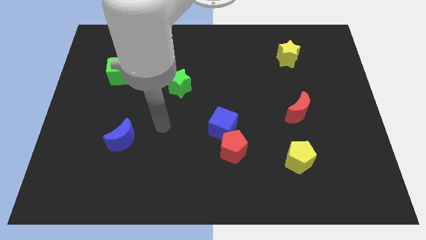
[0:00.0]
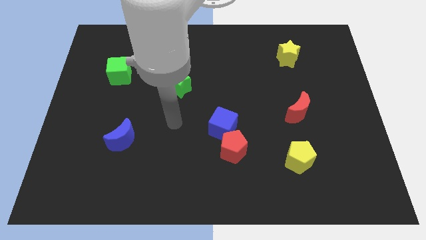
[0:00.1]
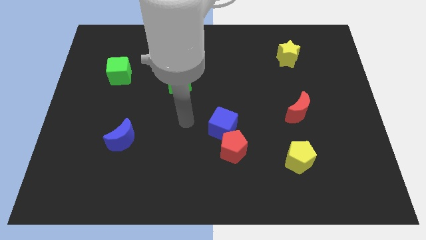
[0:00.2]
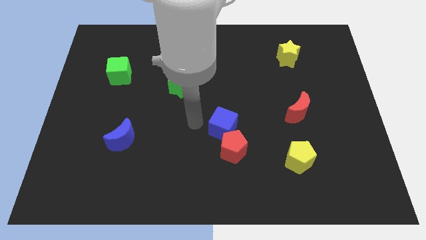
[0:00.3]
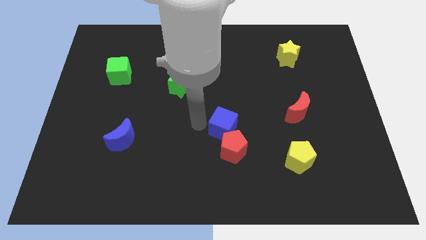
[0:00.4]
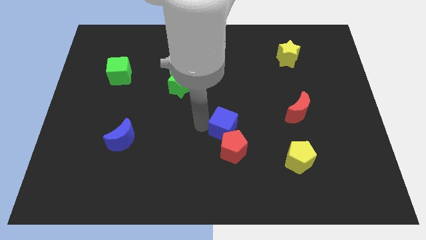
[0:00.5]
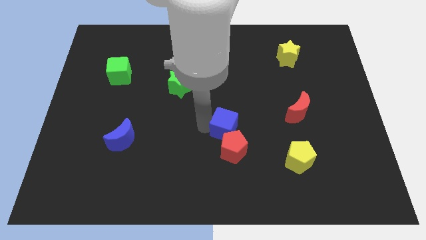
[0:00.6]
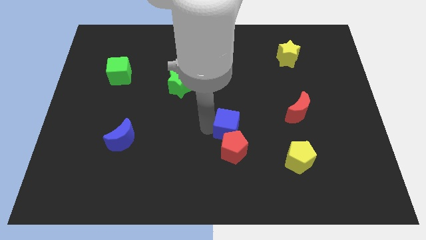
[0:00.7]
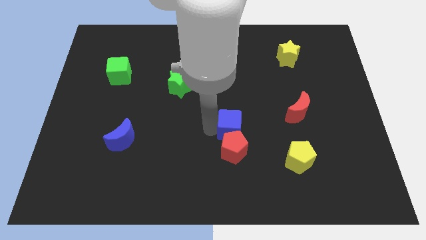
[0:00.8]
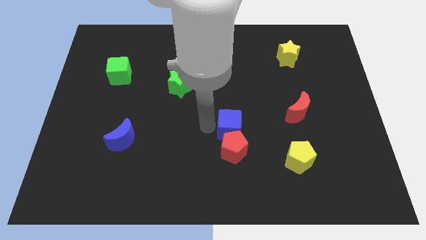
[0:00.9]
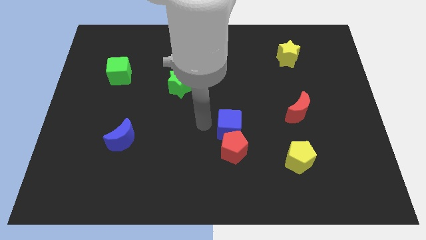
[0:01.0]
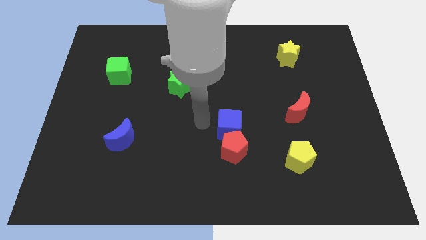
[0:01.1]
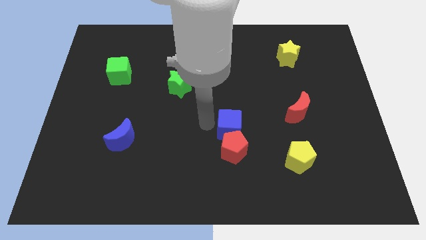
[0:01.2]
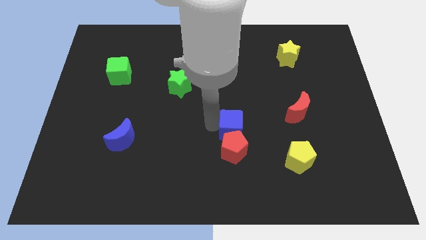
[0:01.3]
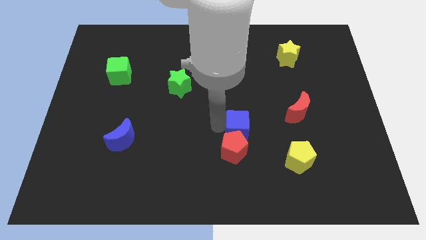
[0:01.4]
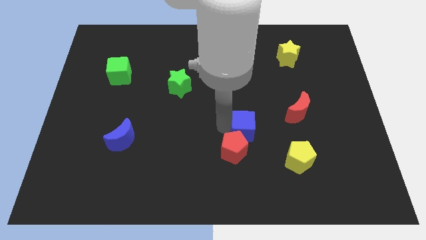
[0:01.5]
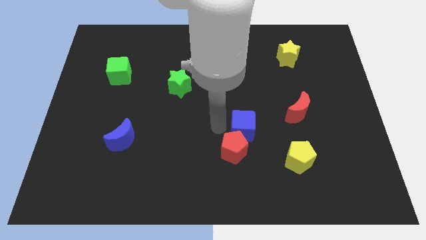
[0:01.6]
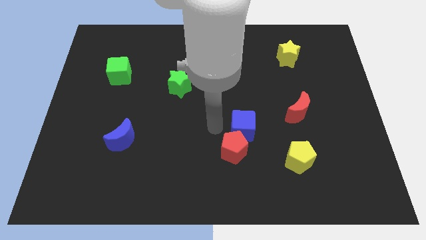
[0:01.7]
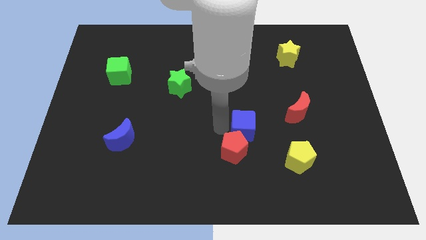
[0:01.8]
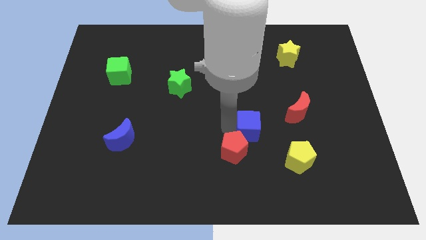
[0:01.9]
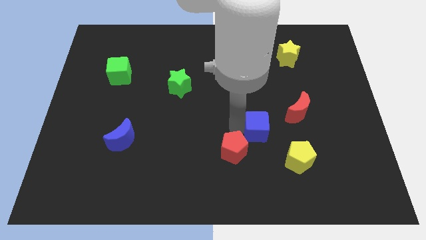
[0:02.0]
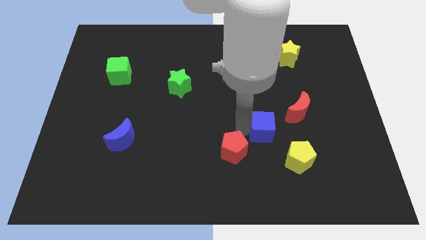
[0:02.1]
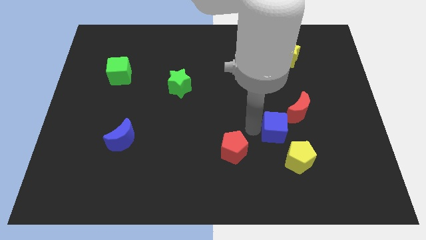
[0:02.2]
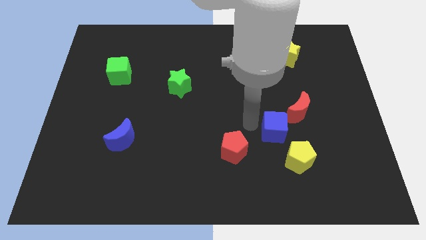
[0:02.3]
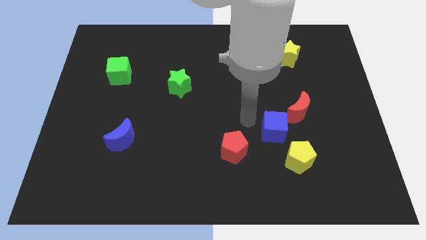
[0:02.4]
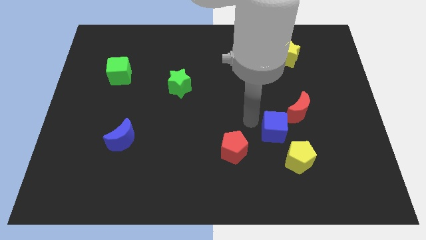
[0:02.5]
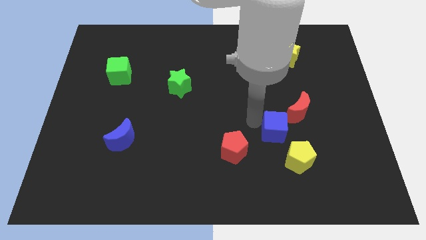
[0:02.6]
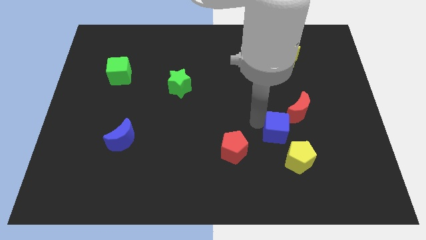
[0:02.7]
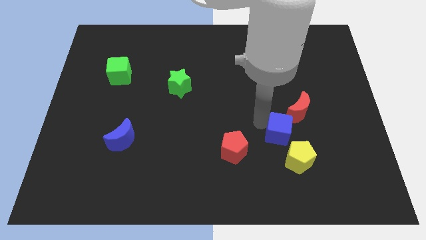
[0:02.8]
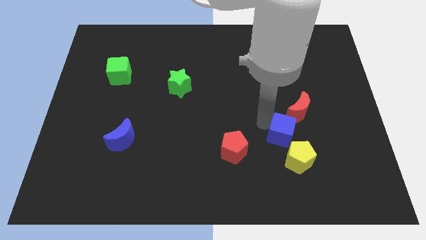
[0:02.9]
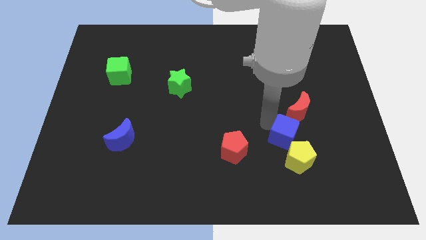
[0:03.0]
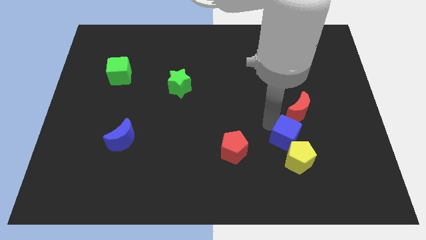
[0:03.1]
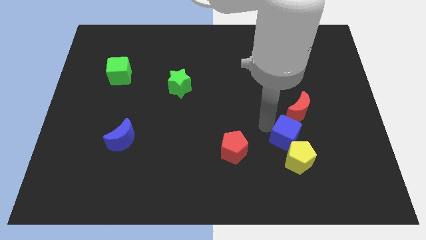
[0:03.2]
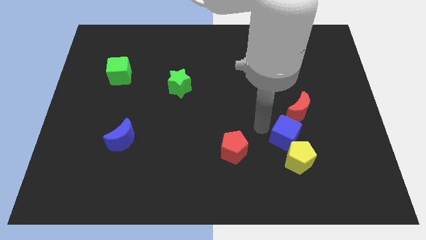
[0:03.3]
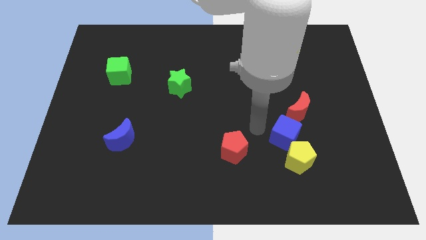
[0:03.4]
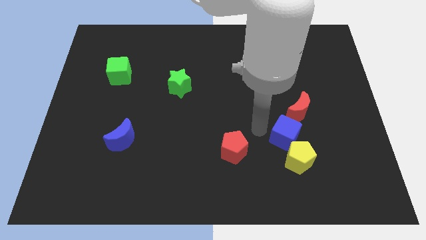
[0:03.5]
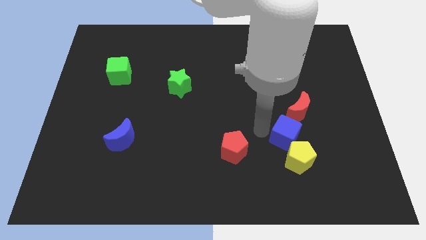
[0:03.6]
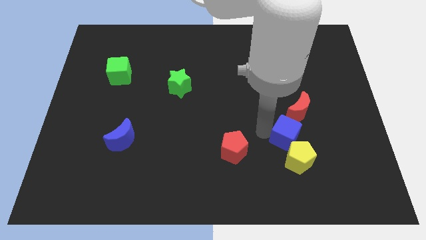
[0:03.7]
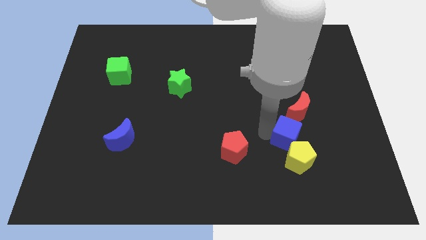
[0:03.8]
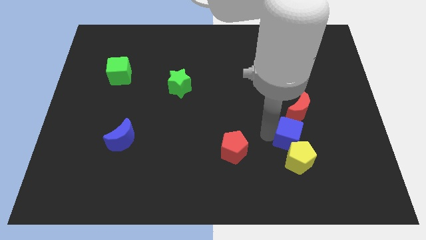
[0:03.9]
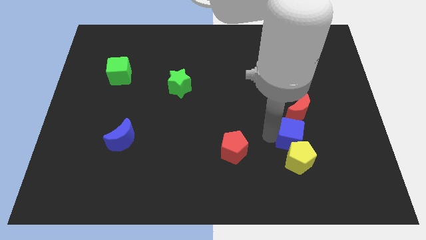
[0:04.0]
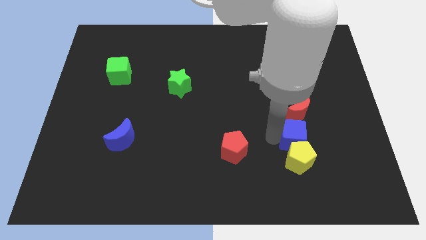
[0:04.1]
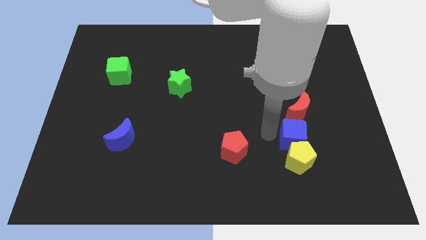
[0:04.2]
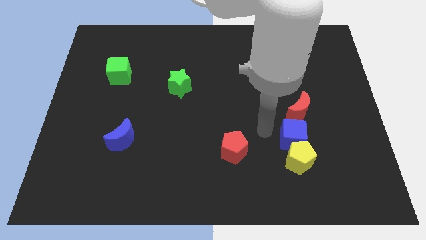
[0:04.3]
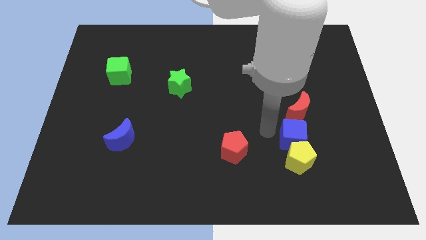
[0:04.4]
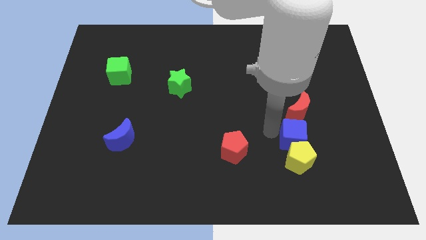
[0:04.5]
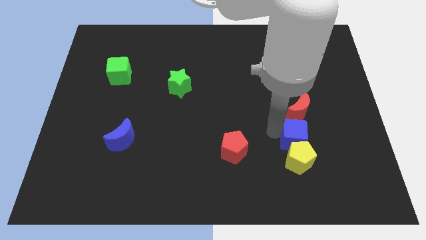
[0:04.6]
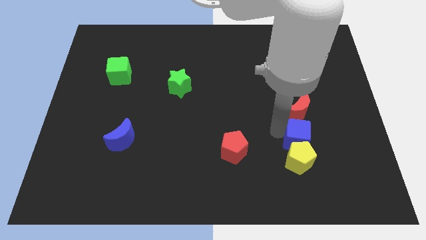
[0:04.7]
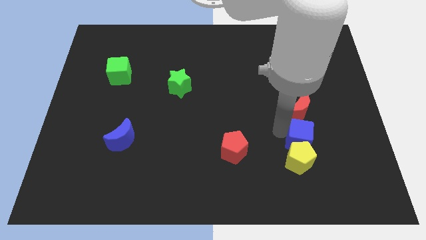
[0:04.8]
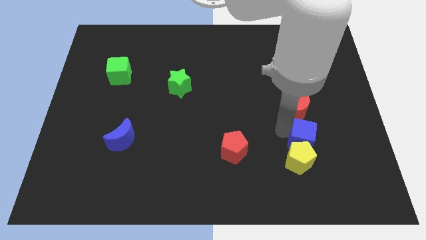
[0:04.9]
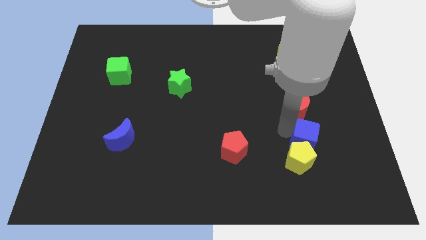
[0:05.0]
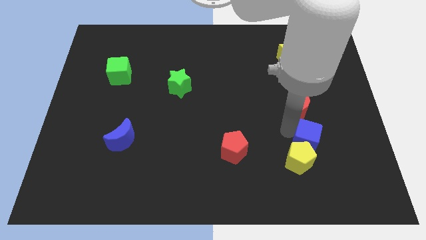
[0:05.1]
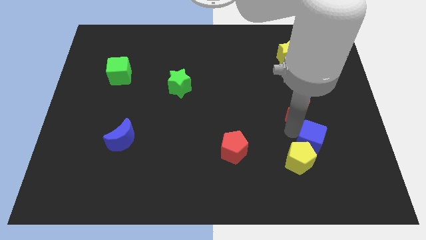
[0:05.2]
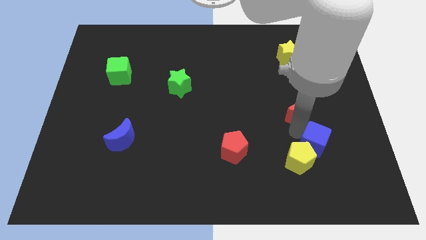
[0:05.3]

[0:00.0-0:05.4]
put the blue cube to the right of the yellow pentagon

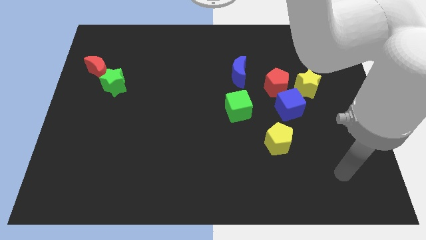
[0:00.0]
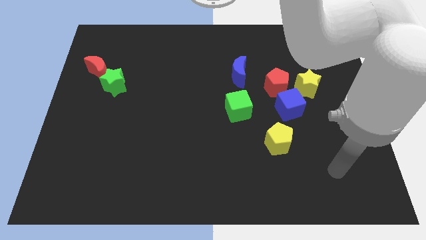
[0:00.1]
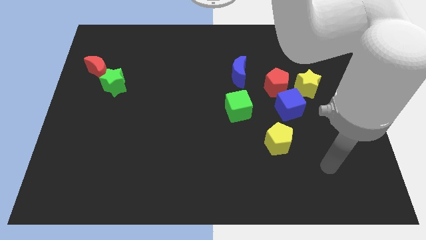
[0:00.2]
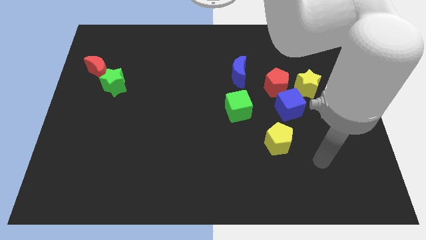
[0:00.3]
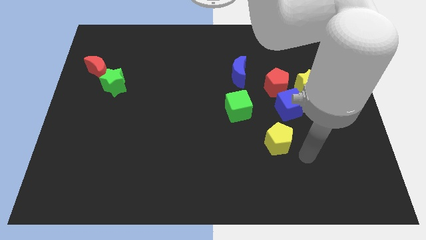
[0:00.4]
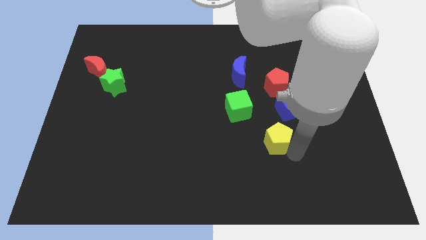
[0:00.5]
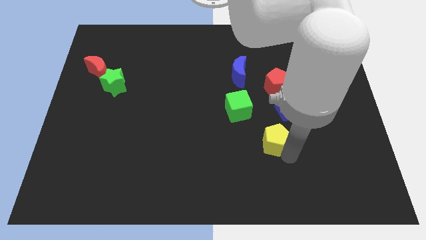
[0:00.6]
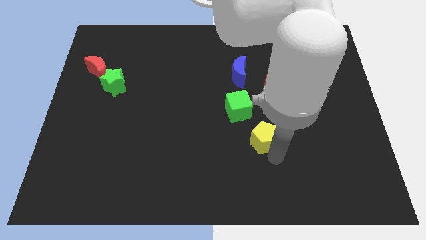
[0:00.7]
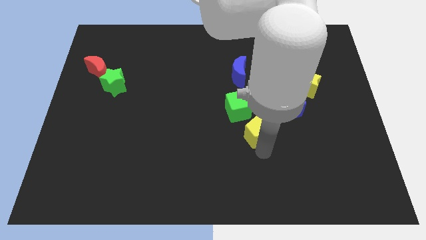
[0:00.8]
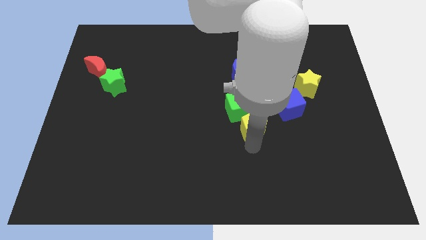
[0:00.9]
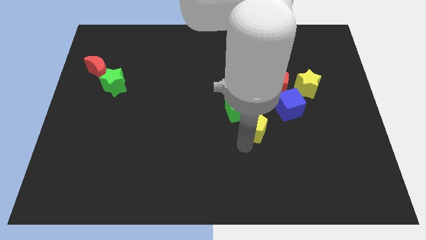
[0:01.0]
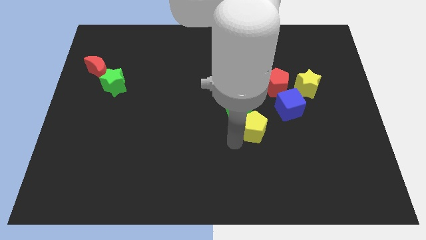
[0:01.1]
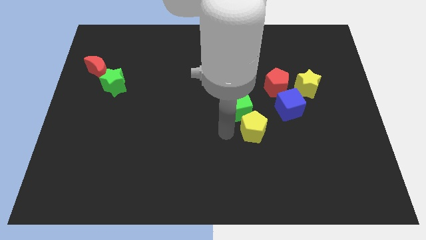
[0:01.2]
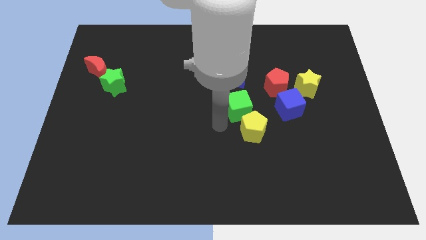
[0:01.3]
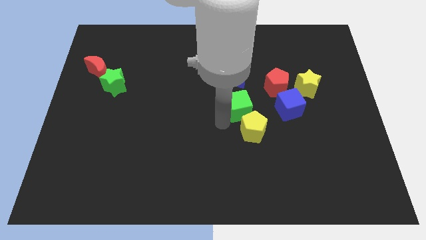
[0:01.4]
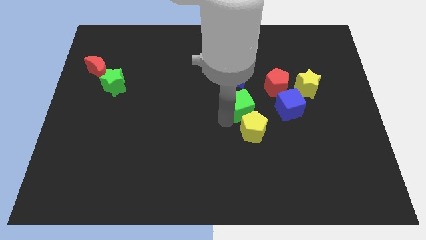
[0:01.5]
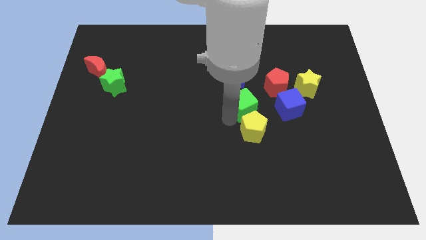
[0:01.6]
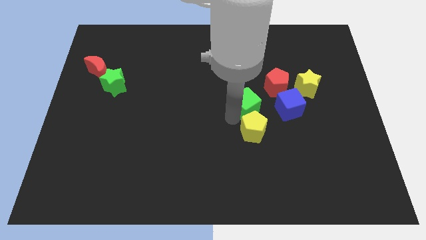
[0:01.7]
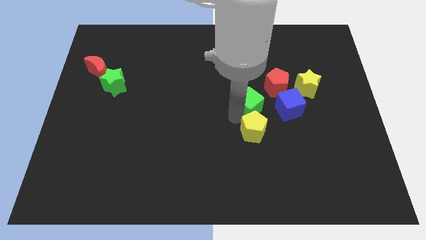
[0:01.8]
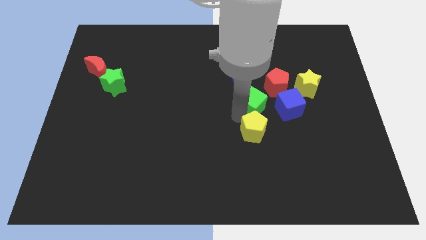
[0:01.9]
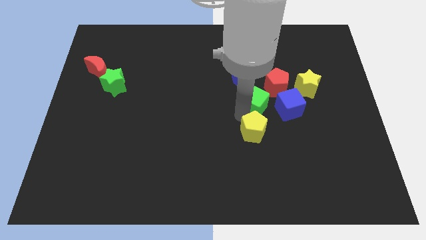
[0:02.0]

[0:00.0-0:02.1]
move the green cube to the bottom right side of the blue moon

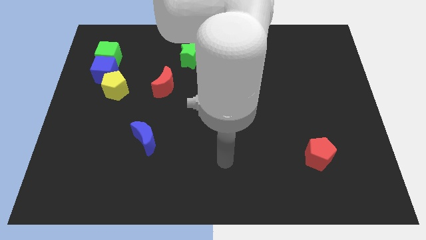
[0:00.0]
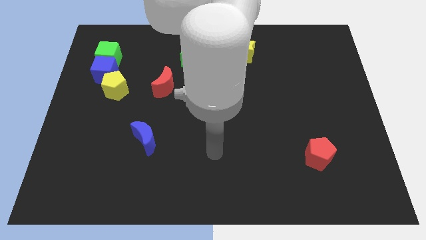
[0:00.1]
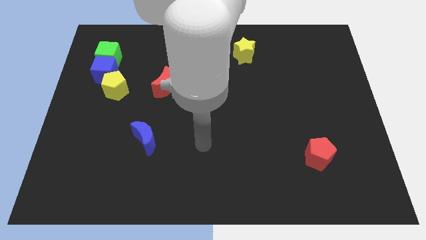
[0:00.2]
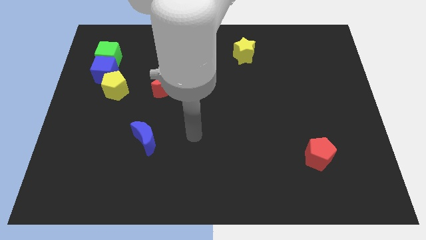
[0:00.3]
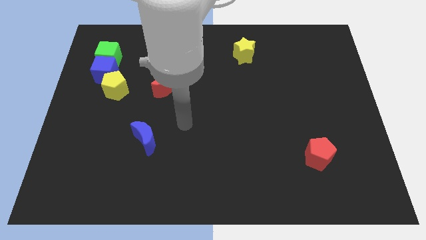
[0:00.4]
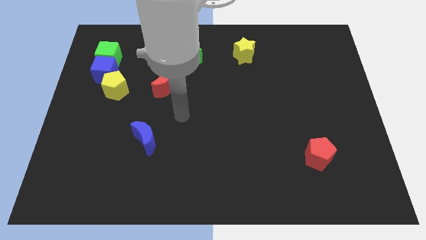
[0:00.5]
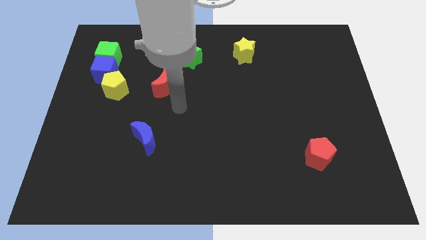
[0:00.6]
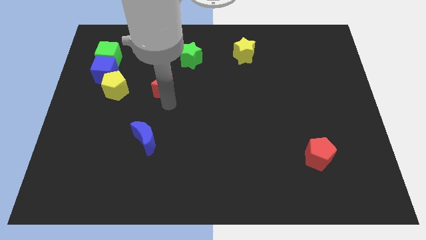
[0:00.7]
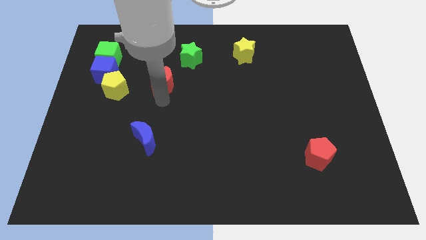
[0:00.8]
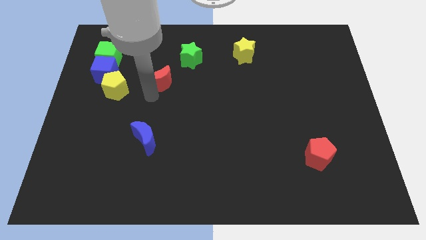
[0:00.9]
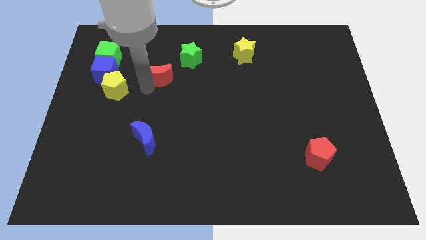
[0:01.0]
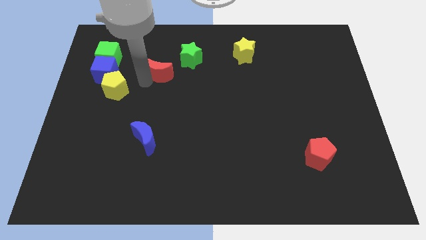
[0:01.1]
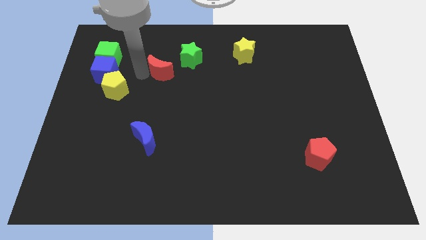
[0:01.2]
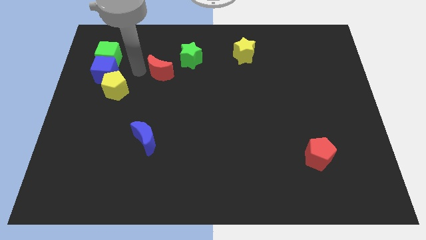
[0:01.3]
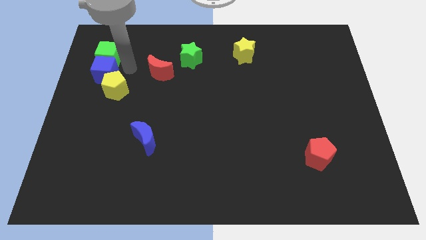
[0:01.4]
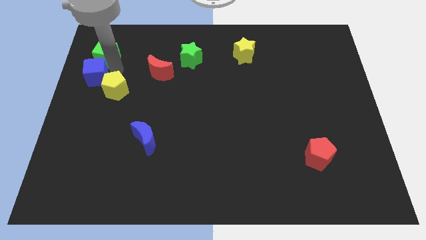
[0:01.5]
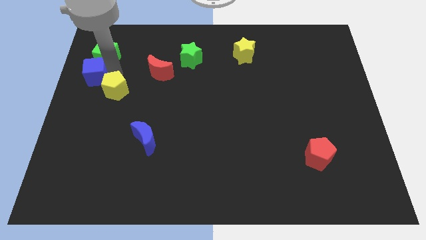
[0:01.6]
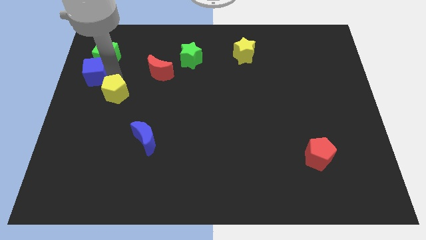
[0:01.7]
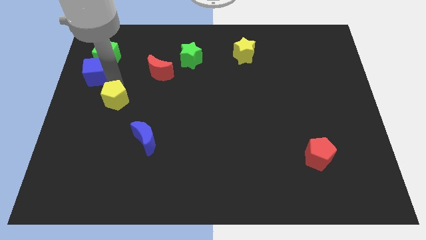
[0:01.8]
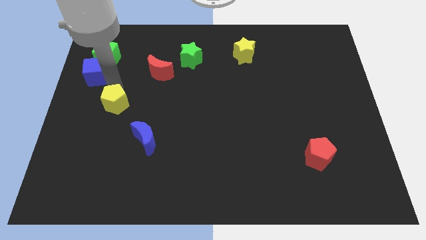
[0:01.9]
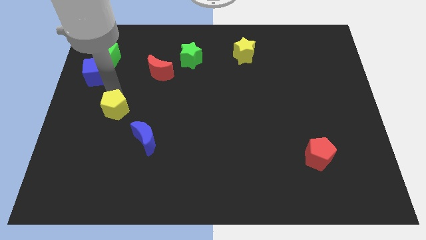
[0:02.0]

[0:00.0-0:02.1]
slide the yellow pentagon to the top left of the blue moon
